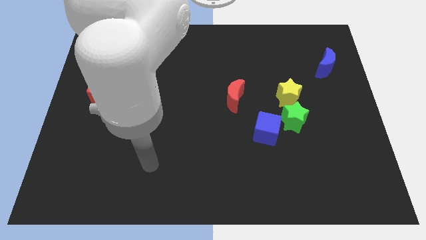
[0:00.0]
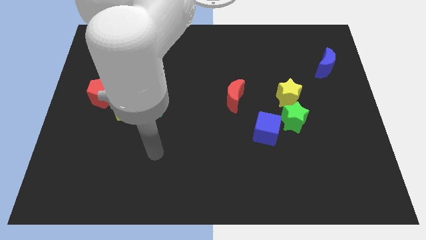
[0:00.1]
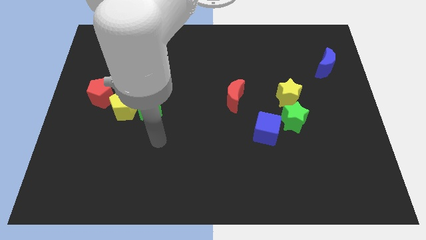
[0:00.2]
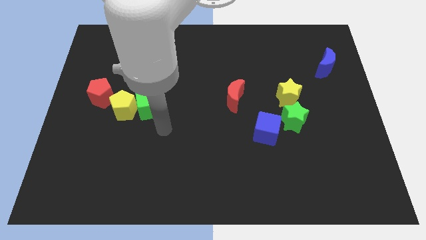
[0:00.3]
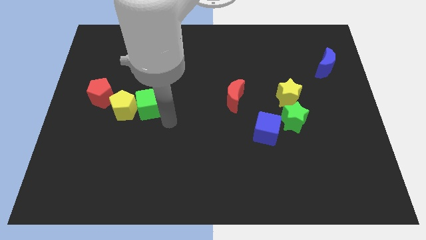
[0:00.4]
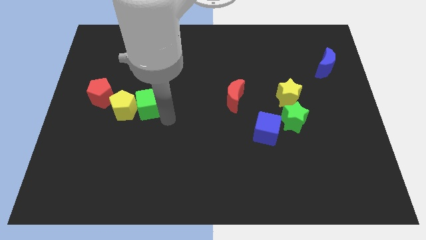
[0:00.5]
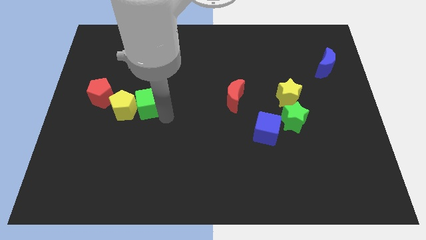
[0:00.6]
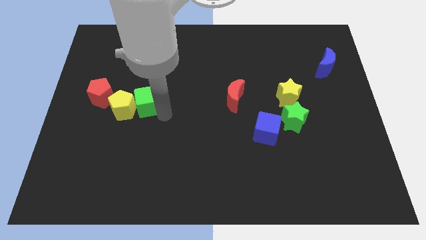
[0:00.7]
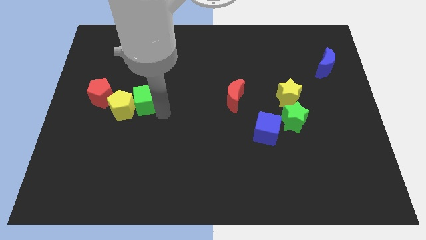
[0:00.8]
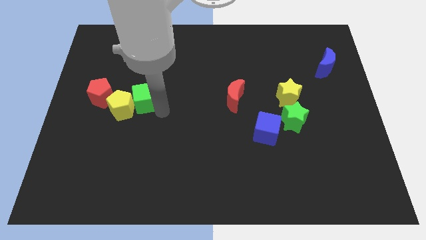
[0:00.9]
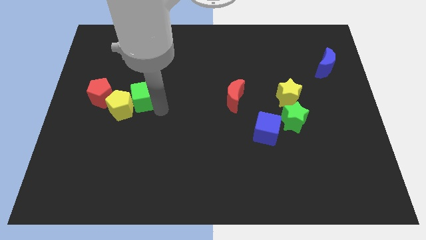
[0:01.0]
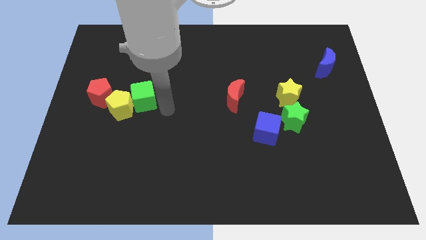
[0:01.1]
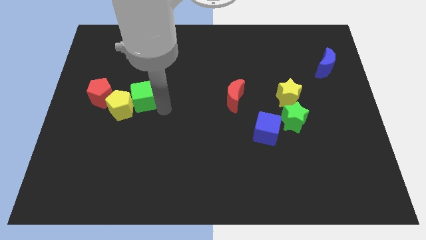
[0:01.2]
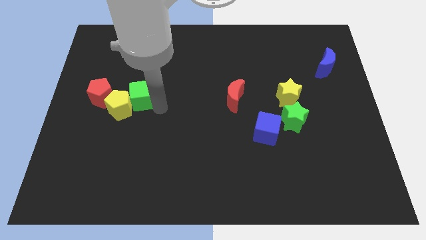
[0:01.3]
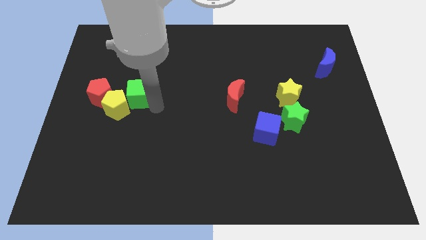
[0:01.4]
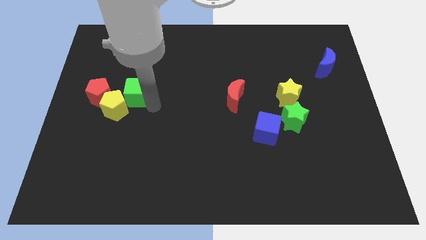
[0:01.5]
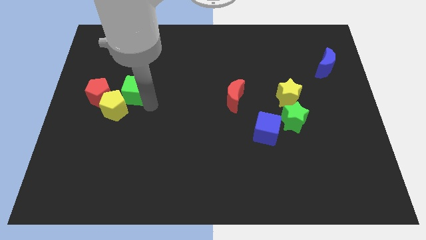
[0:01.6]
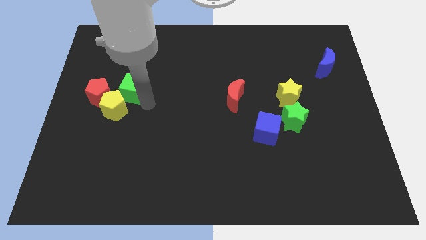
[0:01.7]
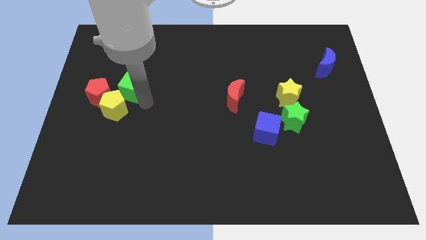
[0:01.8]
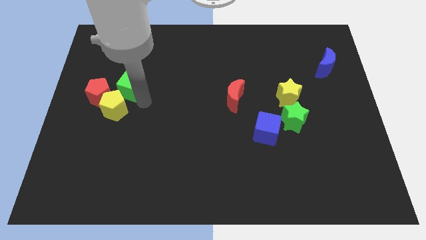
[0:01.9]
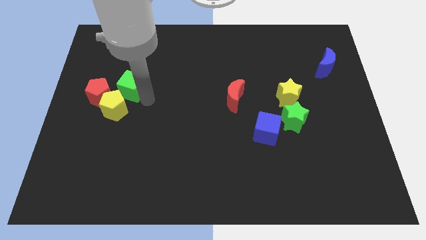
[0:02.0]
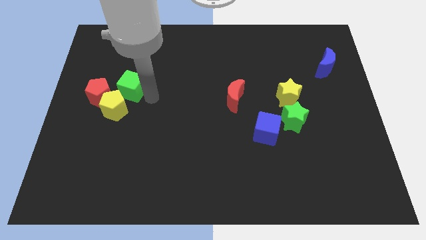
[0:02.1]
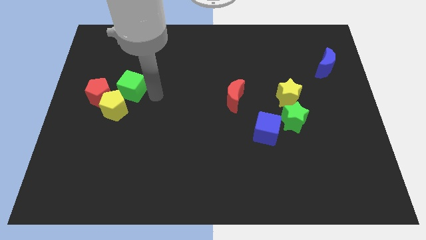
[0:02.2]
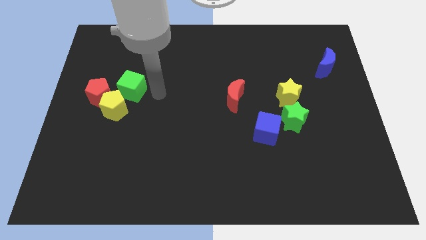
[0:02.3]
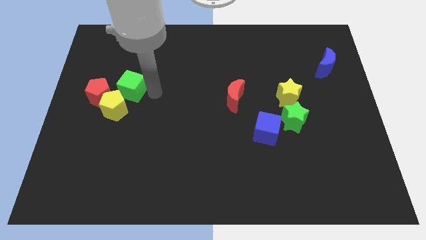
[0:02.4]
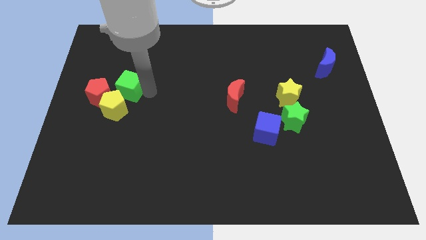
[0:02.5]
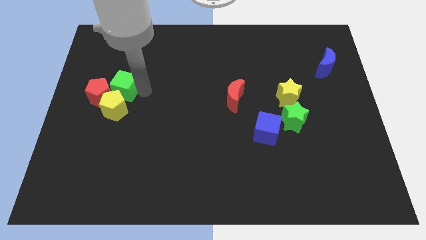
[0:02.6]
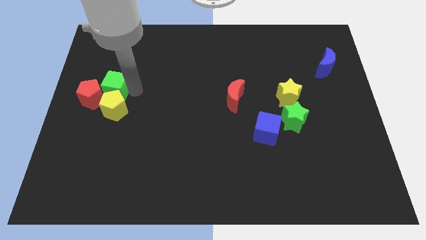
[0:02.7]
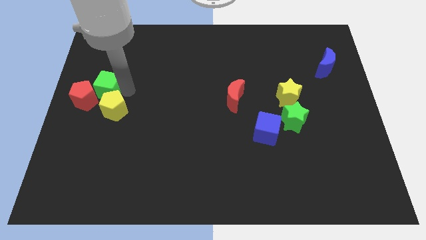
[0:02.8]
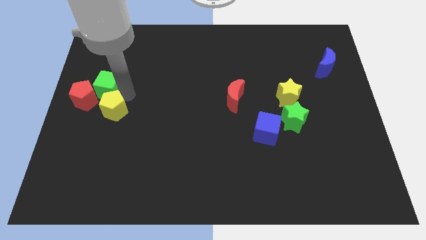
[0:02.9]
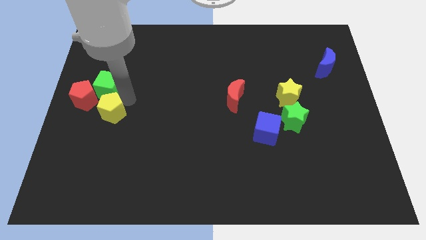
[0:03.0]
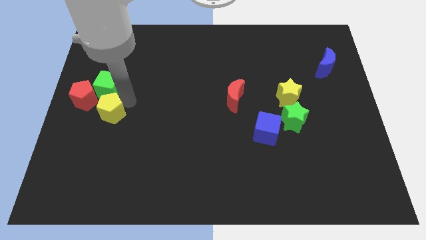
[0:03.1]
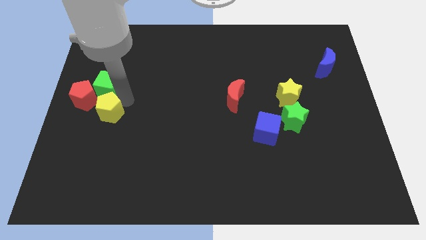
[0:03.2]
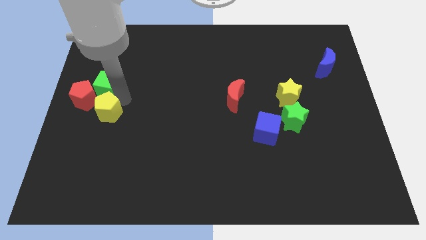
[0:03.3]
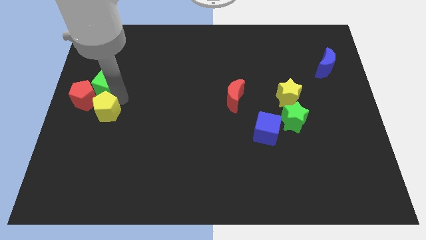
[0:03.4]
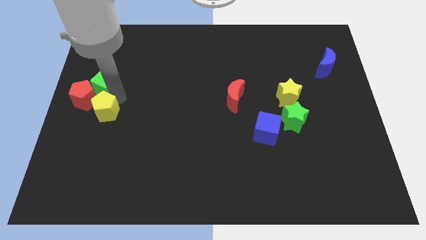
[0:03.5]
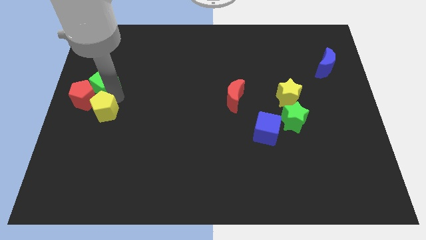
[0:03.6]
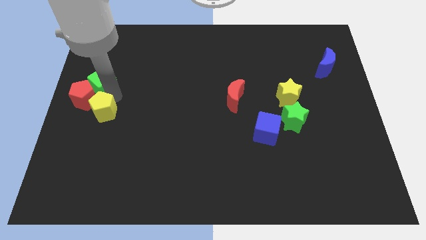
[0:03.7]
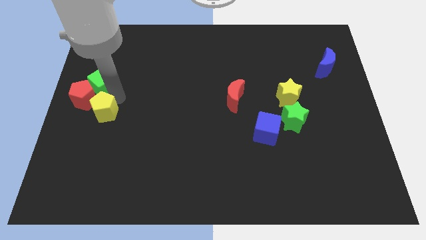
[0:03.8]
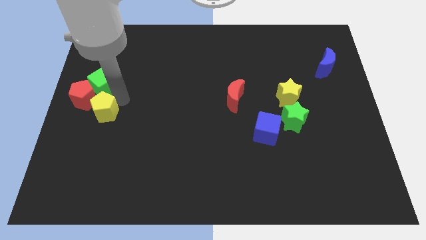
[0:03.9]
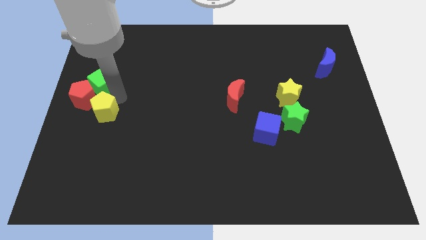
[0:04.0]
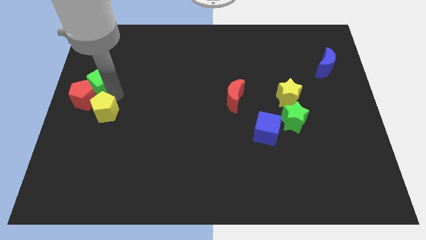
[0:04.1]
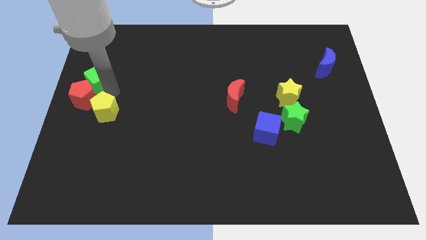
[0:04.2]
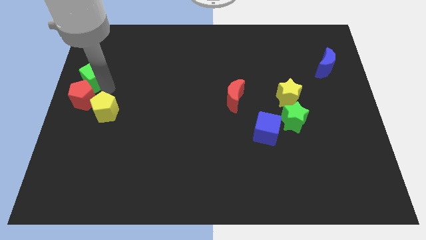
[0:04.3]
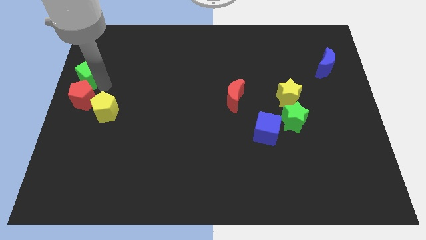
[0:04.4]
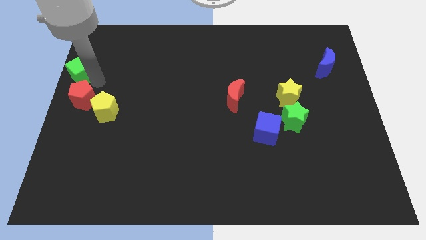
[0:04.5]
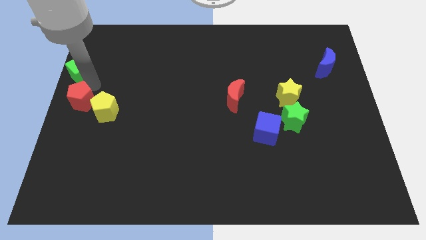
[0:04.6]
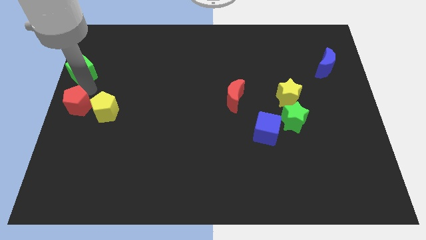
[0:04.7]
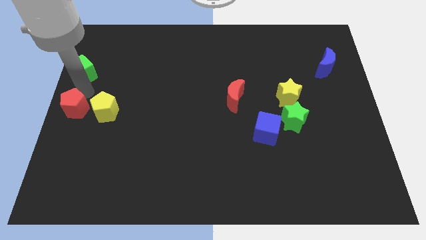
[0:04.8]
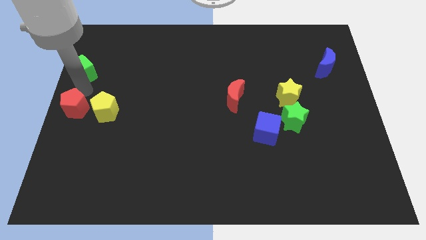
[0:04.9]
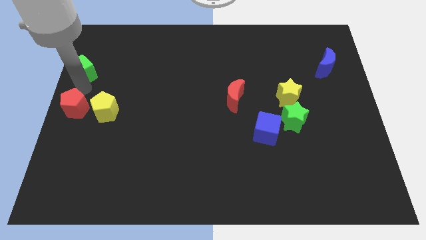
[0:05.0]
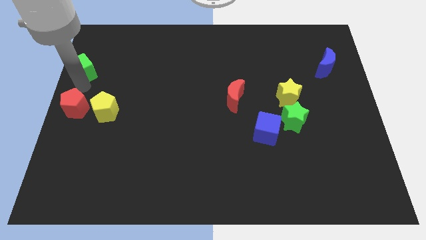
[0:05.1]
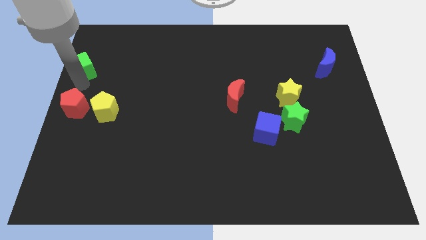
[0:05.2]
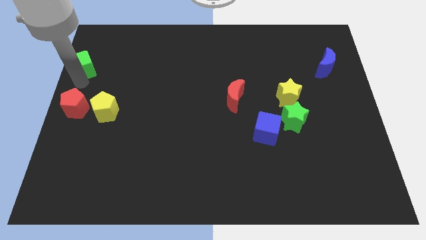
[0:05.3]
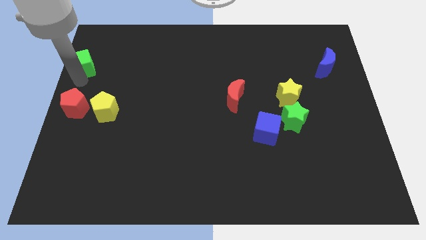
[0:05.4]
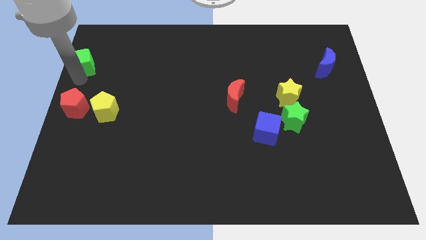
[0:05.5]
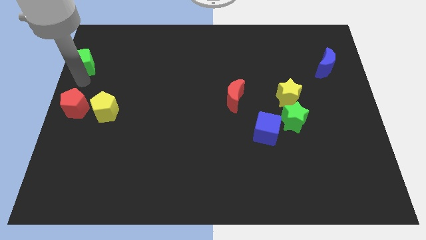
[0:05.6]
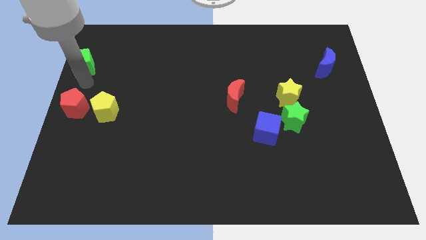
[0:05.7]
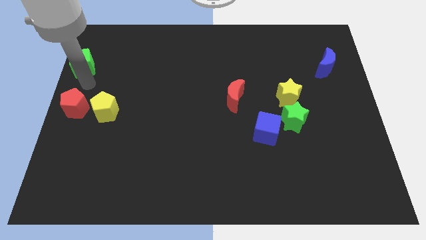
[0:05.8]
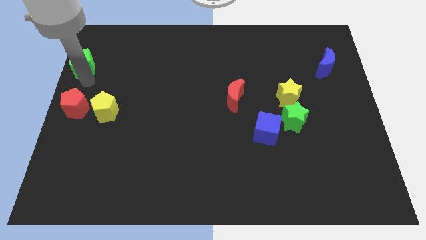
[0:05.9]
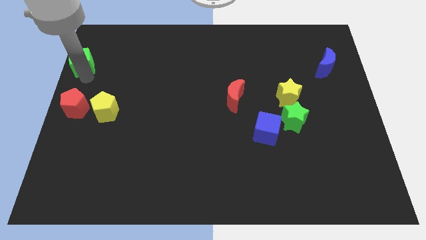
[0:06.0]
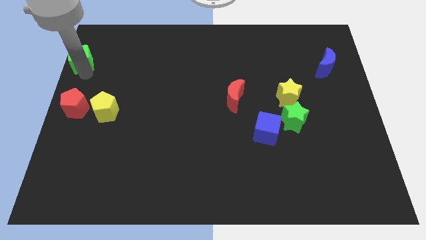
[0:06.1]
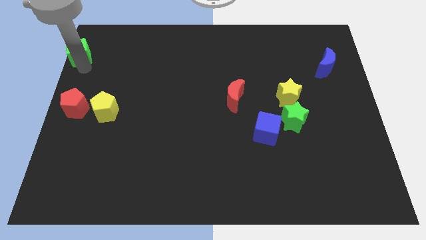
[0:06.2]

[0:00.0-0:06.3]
push the green cube to the top left corner

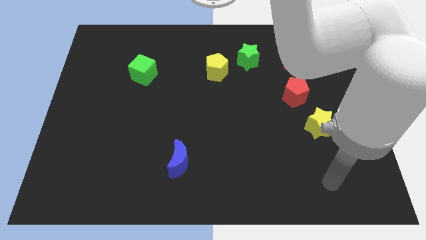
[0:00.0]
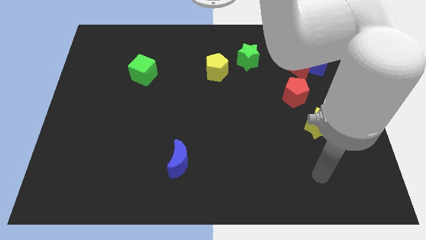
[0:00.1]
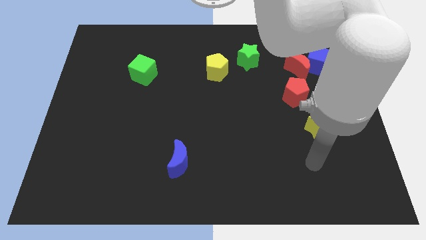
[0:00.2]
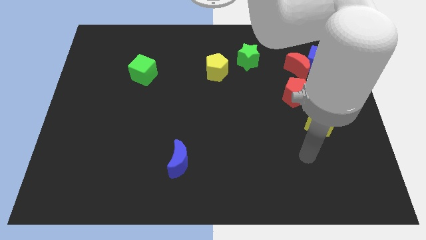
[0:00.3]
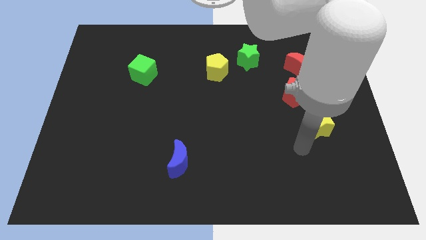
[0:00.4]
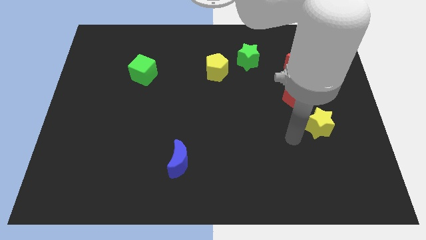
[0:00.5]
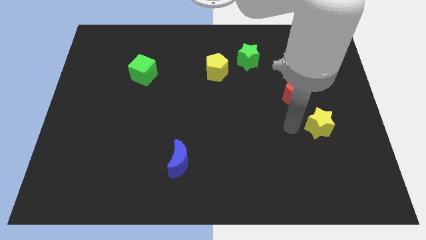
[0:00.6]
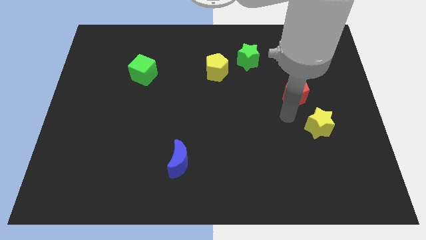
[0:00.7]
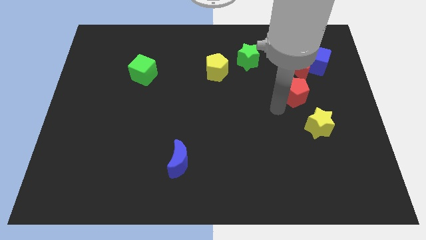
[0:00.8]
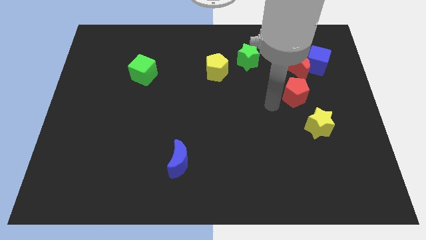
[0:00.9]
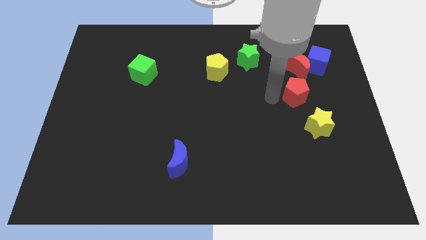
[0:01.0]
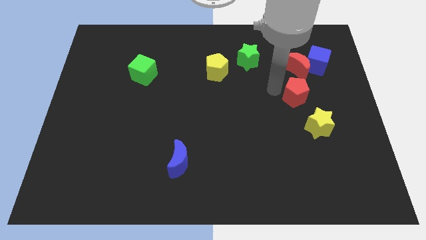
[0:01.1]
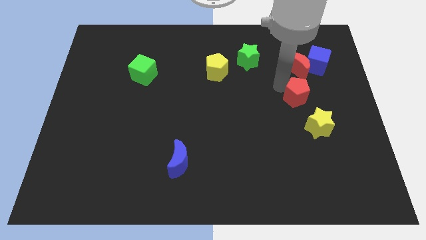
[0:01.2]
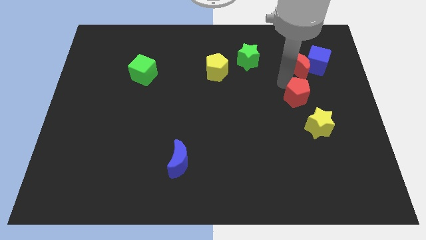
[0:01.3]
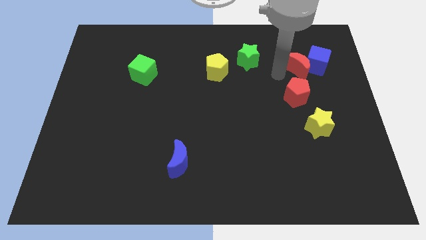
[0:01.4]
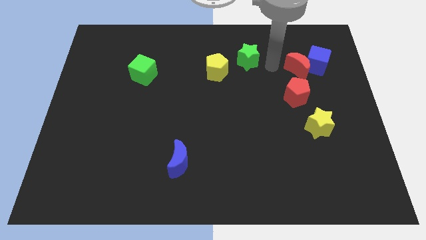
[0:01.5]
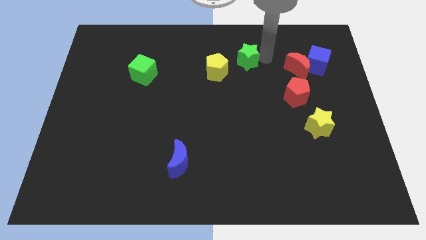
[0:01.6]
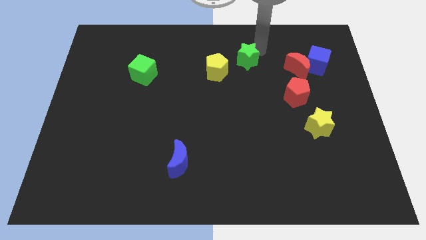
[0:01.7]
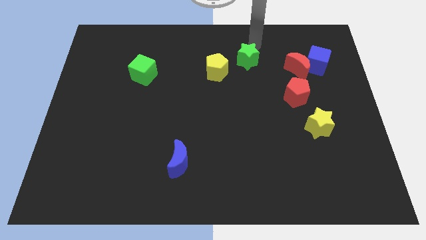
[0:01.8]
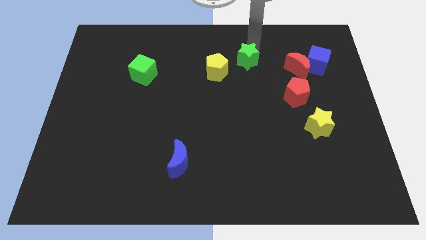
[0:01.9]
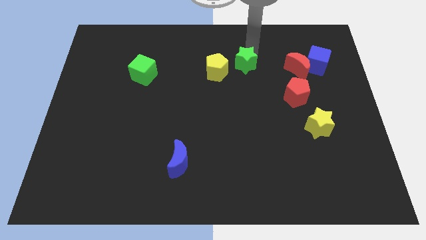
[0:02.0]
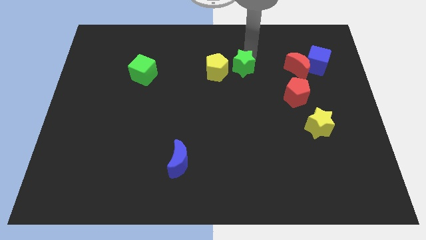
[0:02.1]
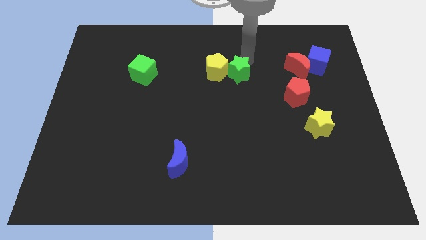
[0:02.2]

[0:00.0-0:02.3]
put the green star to the center
